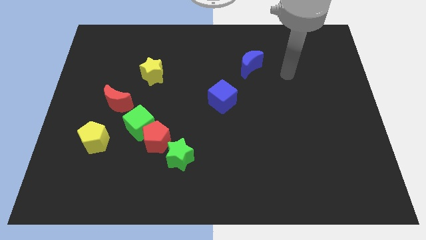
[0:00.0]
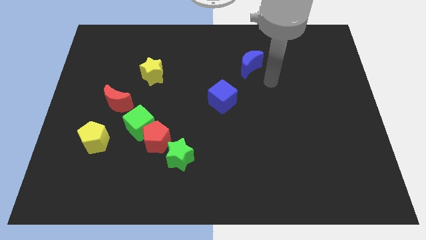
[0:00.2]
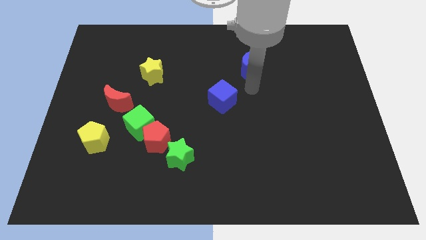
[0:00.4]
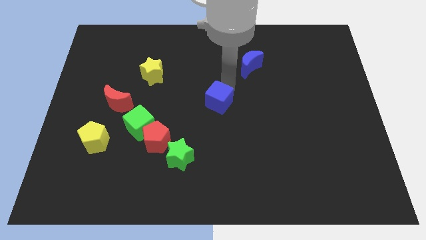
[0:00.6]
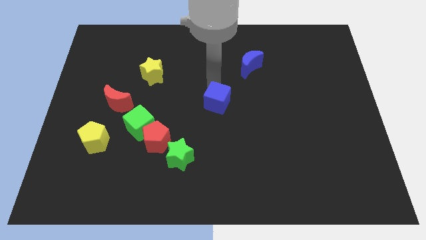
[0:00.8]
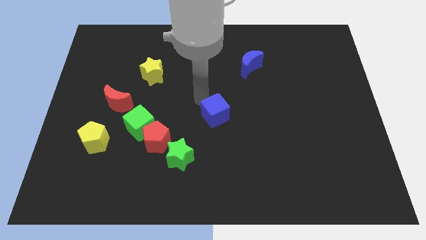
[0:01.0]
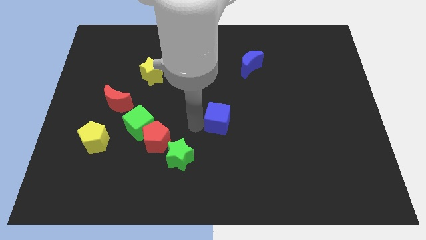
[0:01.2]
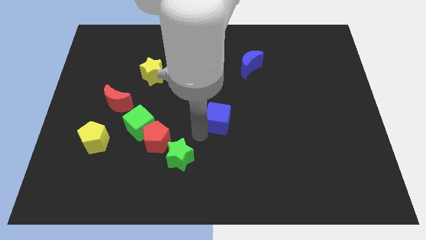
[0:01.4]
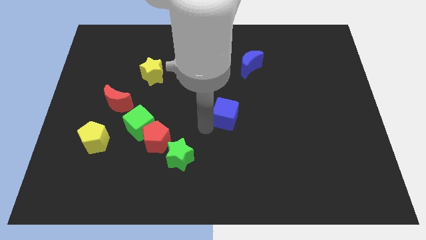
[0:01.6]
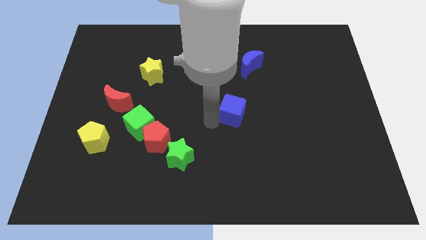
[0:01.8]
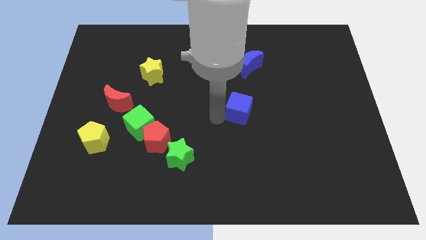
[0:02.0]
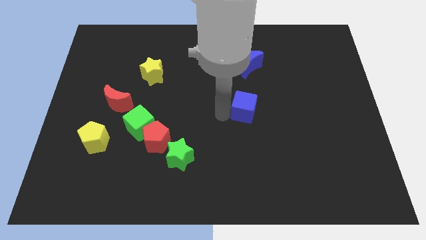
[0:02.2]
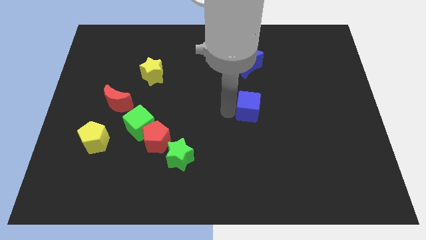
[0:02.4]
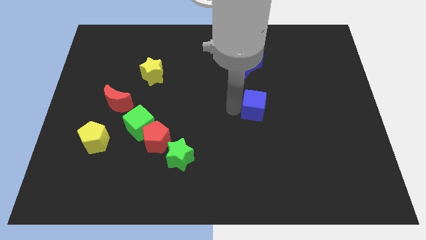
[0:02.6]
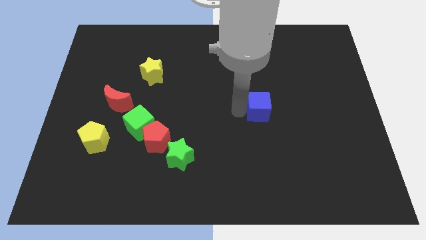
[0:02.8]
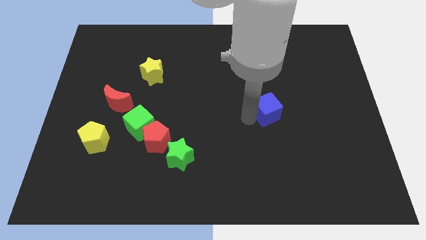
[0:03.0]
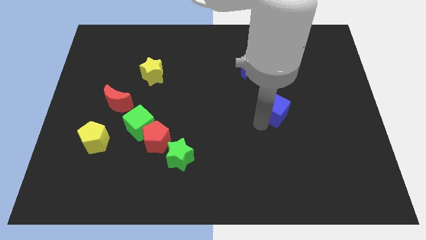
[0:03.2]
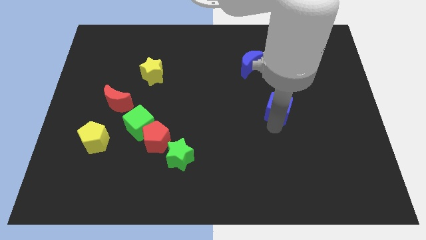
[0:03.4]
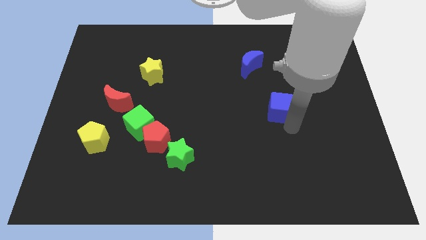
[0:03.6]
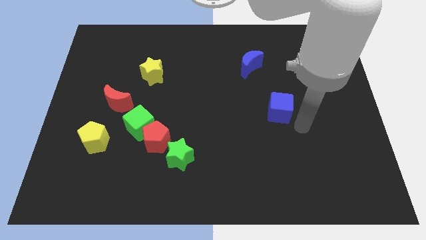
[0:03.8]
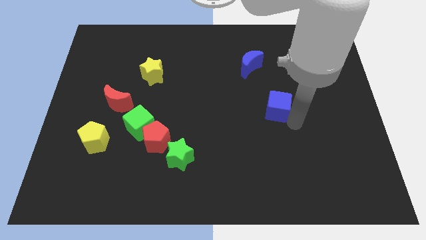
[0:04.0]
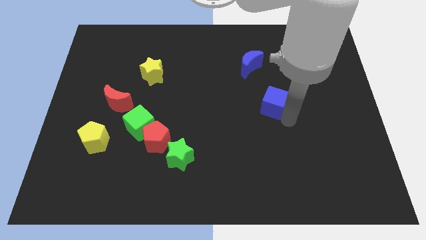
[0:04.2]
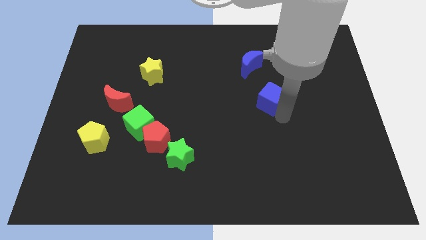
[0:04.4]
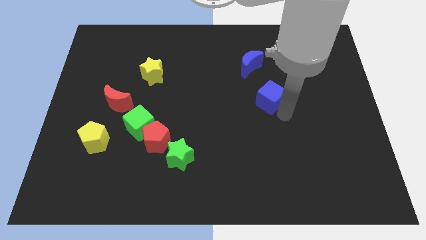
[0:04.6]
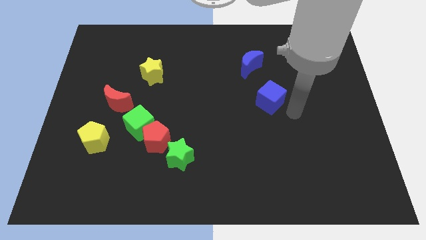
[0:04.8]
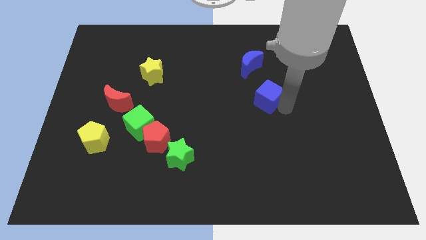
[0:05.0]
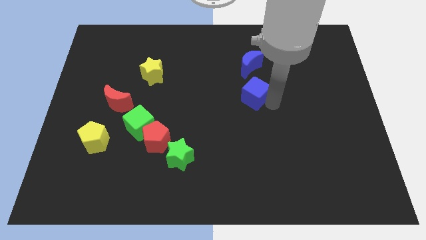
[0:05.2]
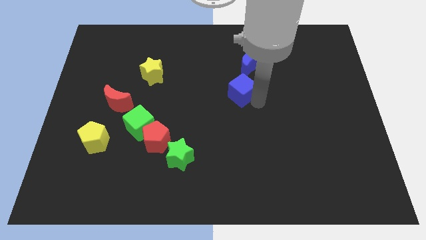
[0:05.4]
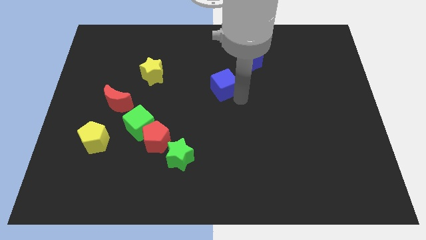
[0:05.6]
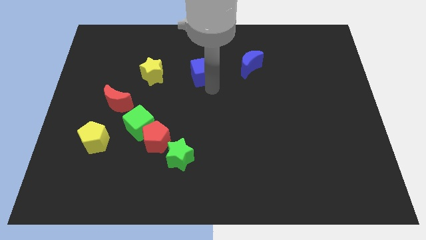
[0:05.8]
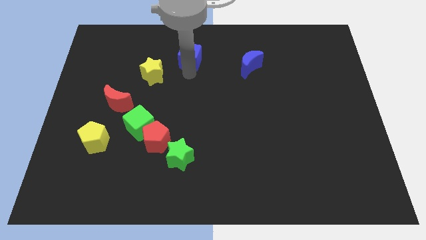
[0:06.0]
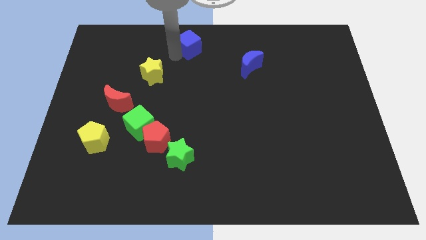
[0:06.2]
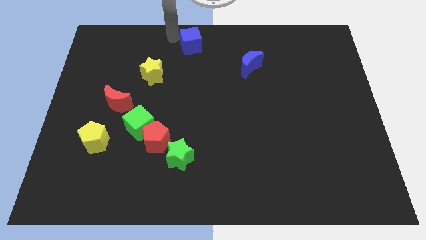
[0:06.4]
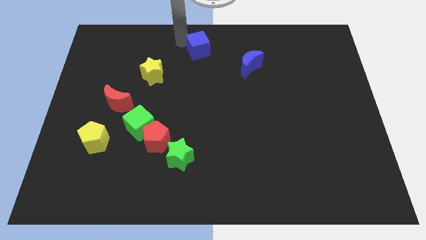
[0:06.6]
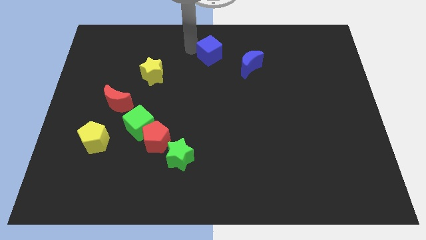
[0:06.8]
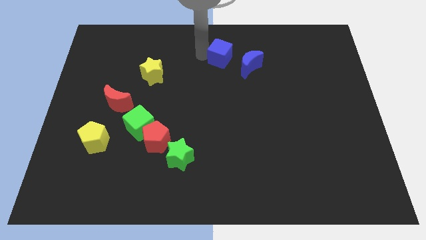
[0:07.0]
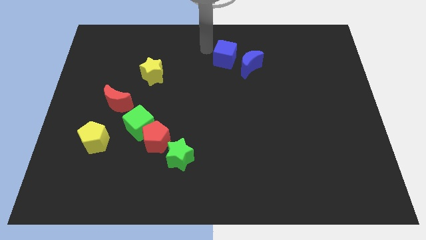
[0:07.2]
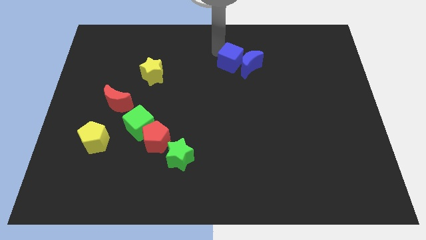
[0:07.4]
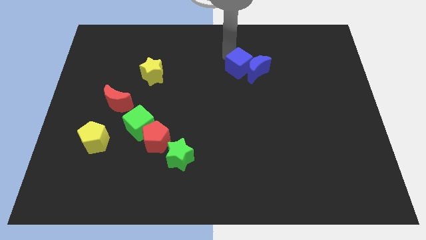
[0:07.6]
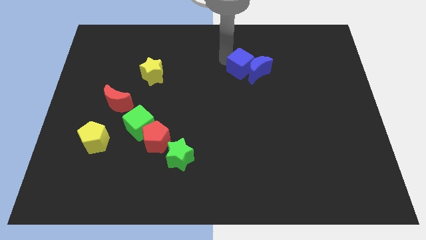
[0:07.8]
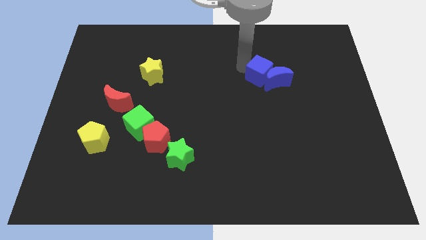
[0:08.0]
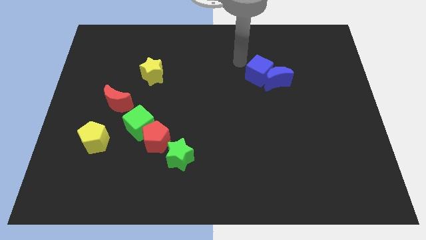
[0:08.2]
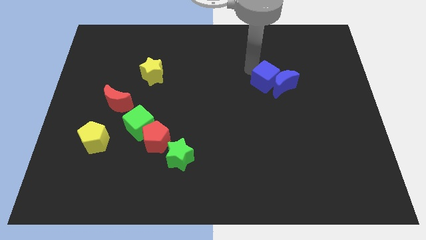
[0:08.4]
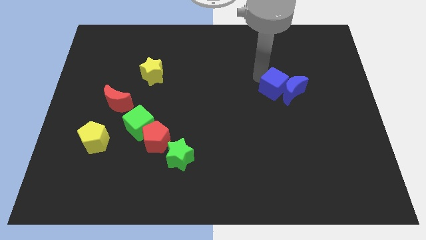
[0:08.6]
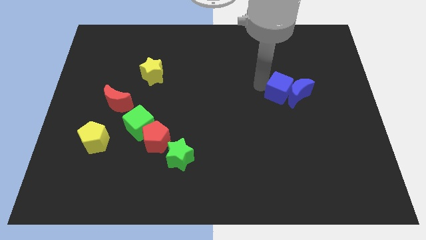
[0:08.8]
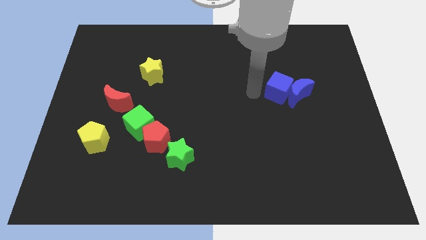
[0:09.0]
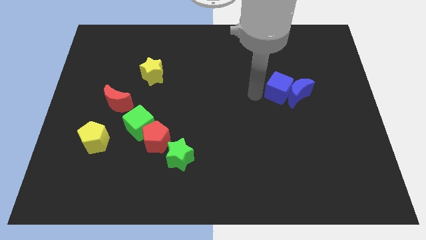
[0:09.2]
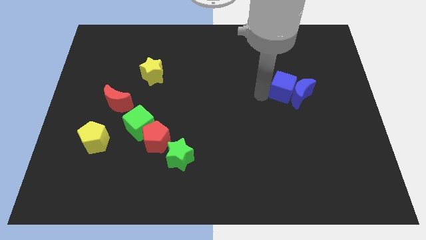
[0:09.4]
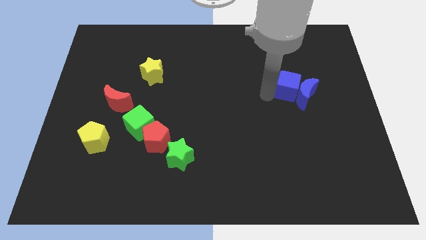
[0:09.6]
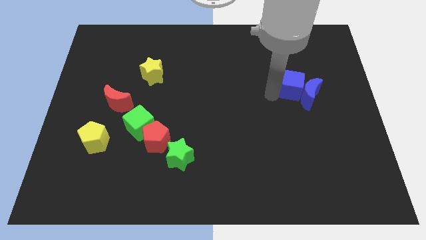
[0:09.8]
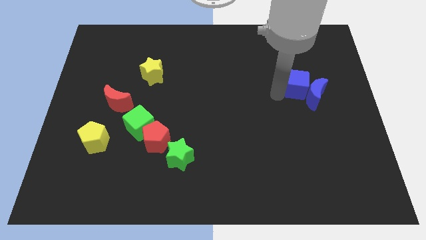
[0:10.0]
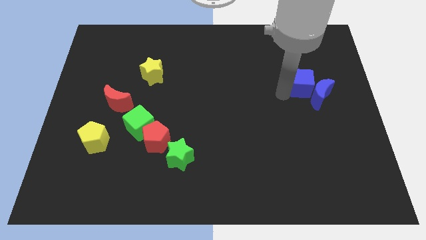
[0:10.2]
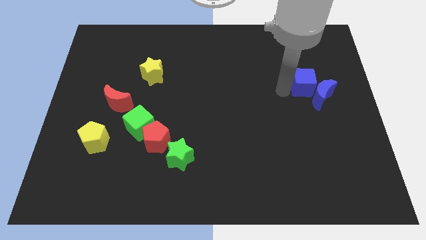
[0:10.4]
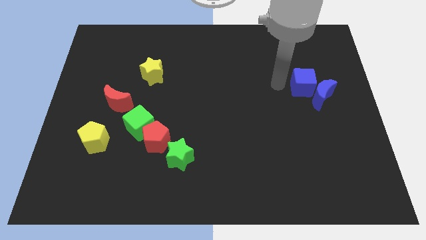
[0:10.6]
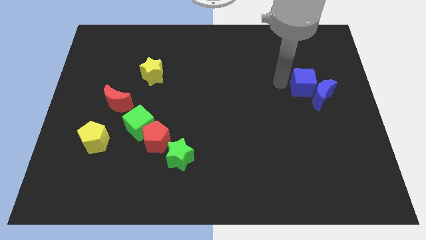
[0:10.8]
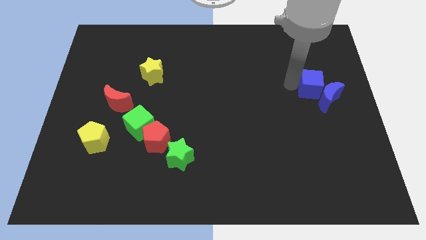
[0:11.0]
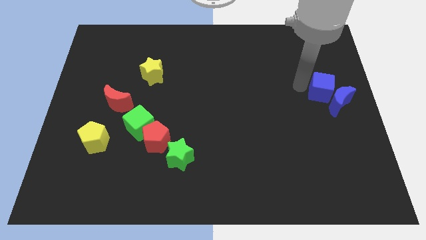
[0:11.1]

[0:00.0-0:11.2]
put the blue cube to the right side

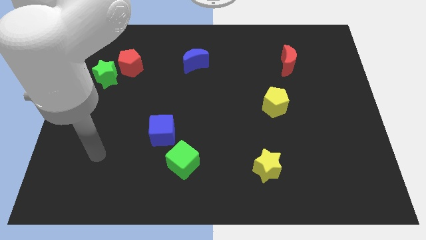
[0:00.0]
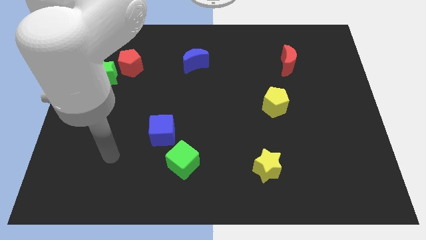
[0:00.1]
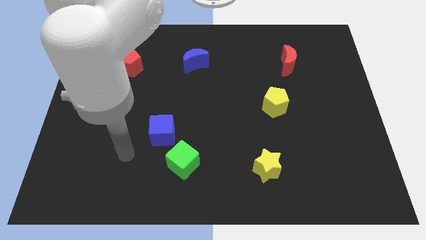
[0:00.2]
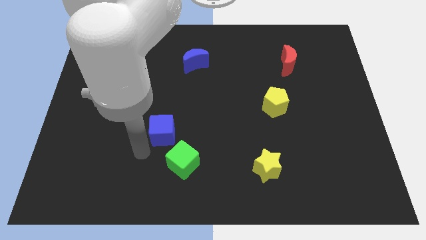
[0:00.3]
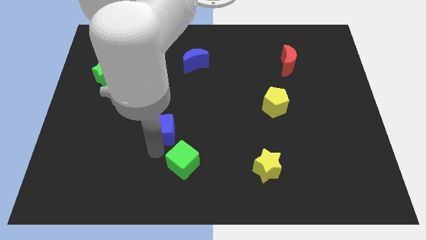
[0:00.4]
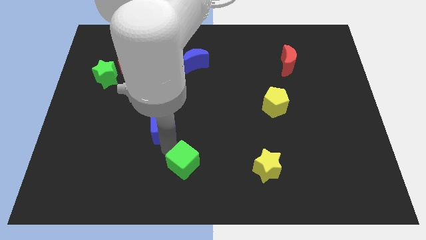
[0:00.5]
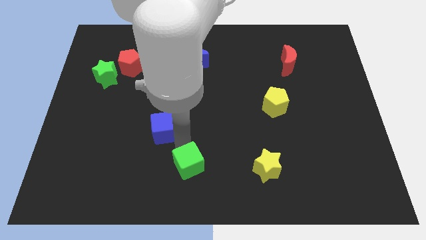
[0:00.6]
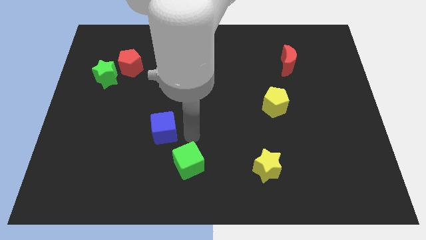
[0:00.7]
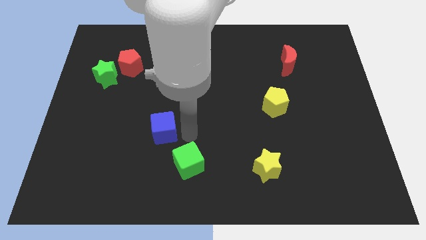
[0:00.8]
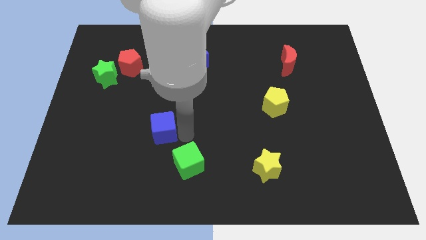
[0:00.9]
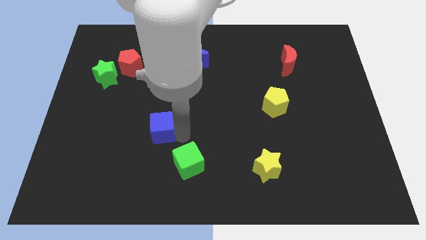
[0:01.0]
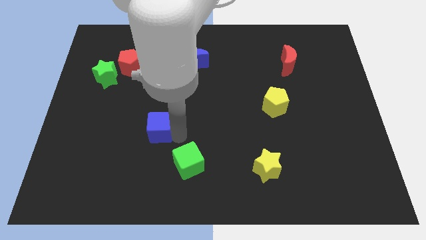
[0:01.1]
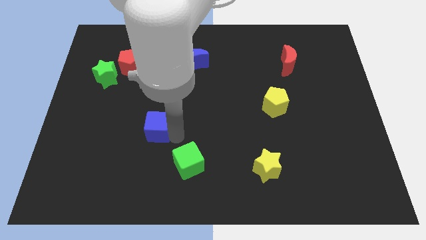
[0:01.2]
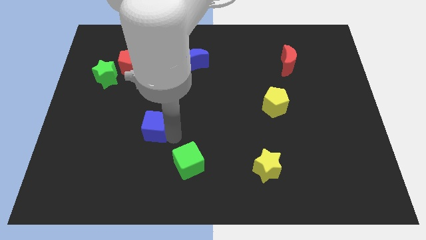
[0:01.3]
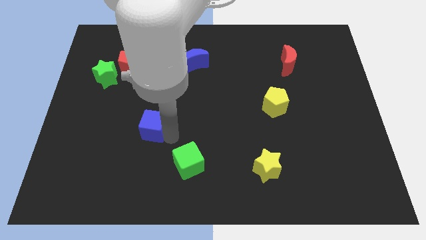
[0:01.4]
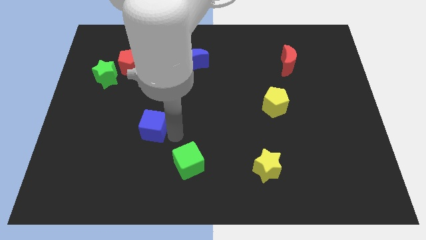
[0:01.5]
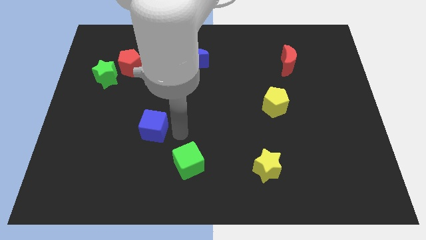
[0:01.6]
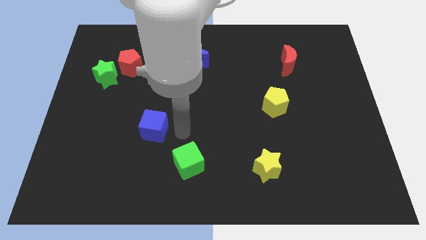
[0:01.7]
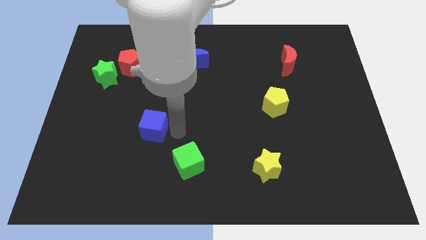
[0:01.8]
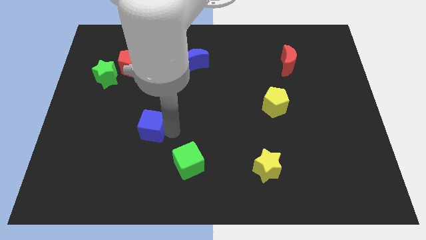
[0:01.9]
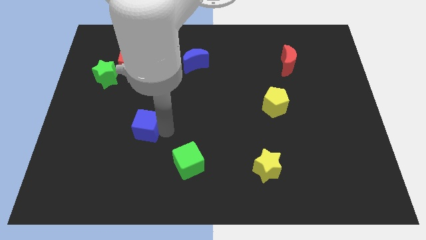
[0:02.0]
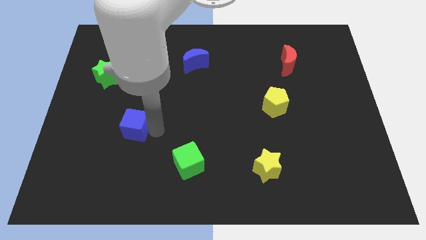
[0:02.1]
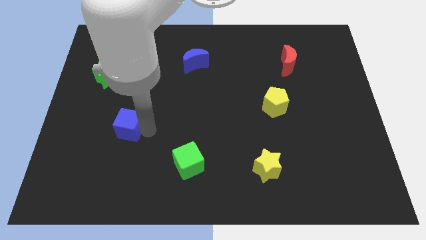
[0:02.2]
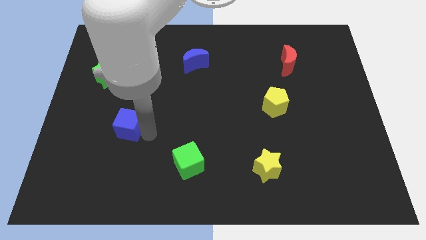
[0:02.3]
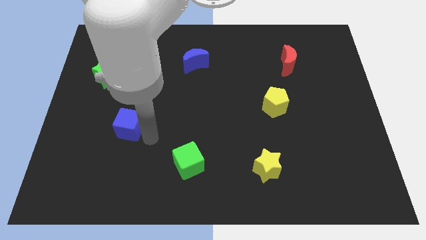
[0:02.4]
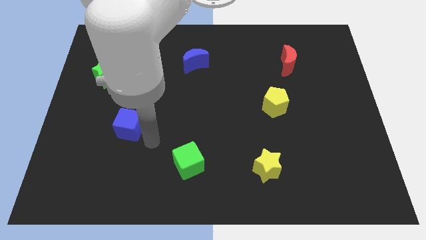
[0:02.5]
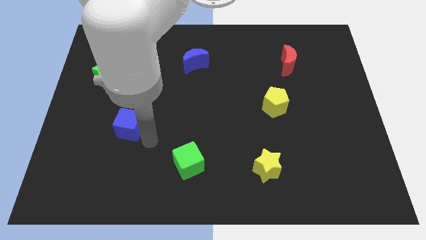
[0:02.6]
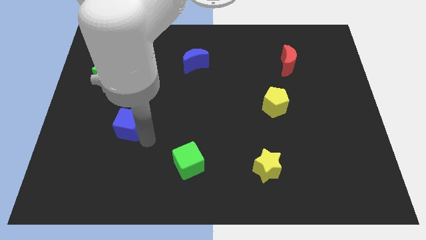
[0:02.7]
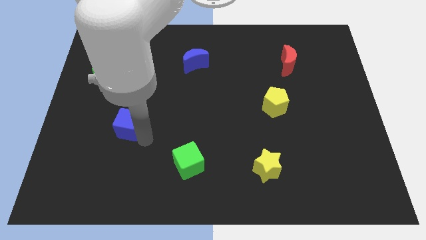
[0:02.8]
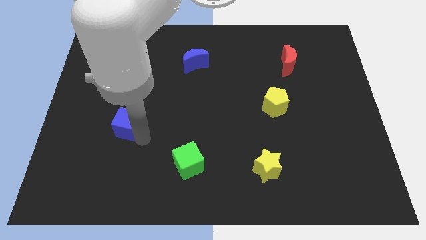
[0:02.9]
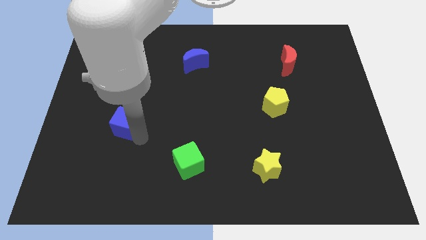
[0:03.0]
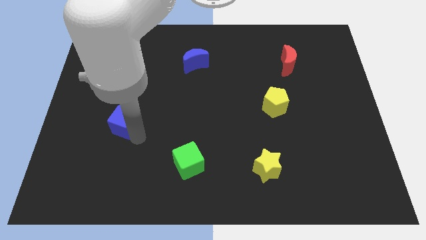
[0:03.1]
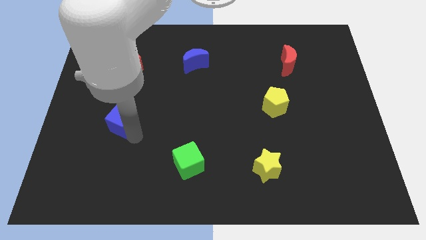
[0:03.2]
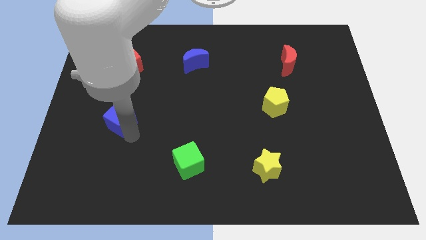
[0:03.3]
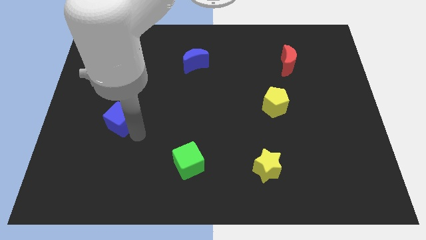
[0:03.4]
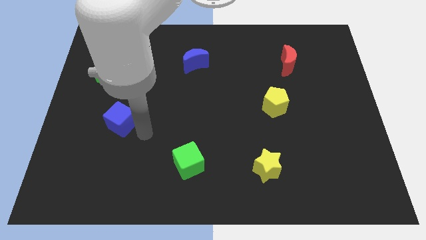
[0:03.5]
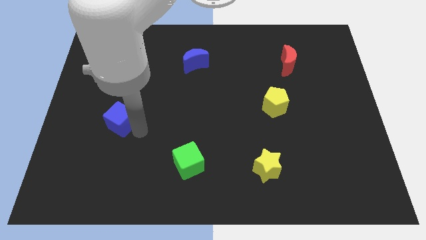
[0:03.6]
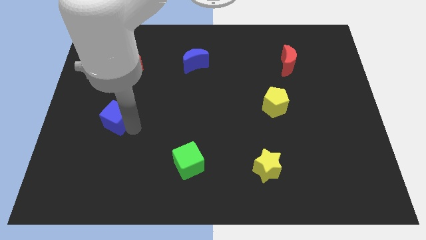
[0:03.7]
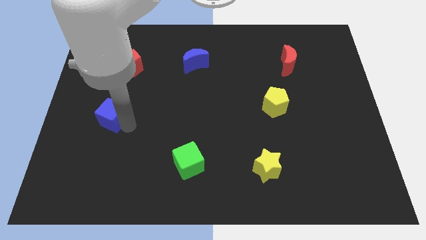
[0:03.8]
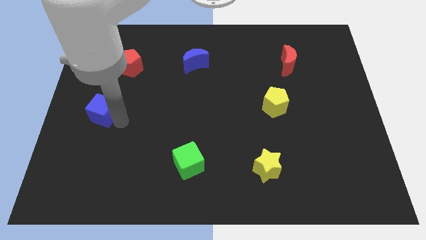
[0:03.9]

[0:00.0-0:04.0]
put the blue cube to the center left
